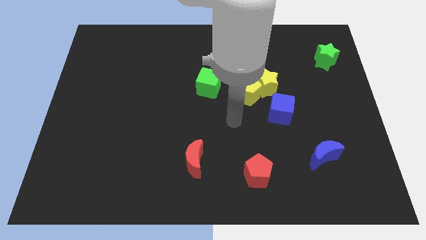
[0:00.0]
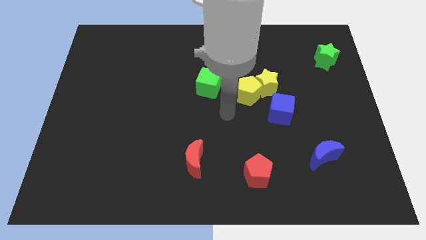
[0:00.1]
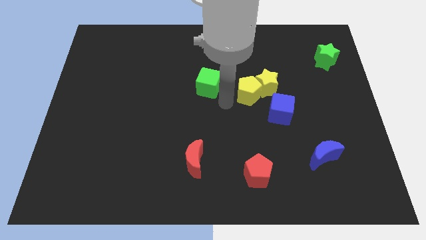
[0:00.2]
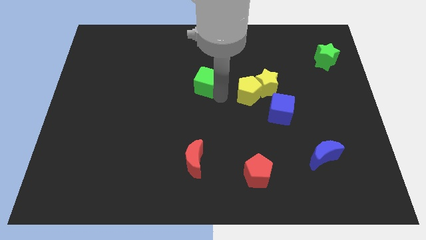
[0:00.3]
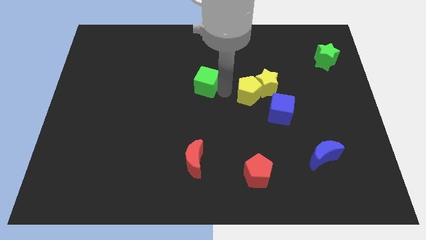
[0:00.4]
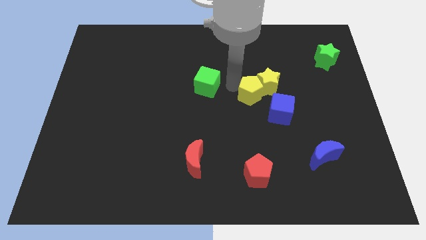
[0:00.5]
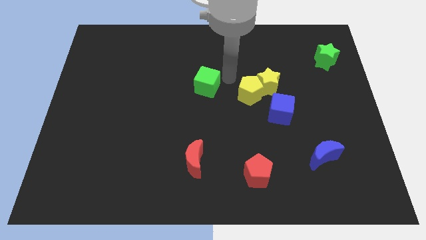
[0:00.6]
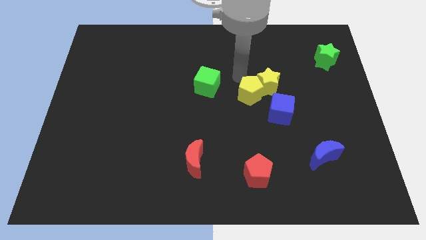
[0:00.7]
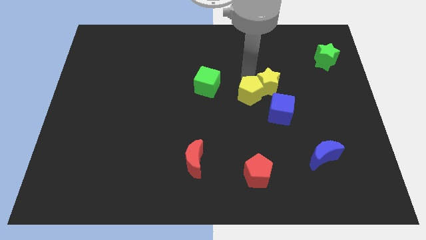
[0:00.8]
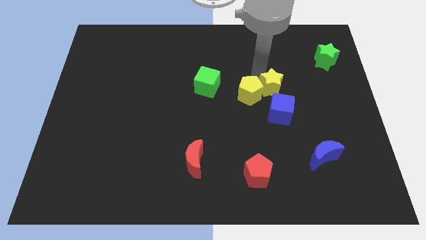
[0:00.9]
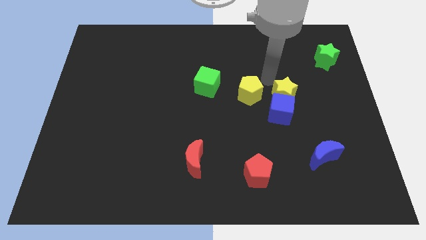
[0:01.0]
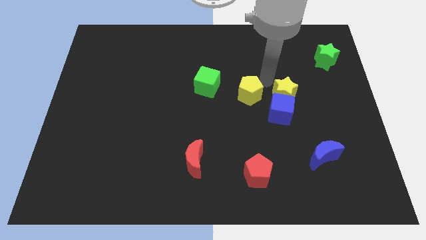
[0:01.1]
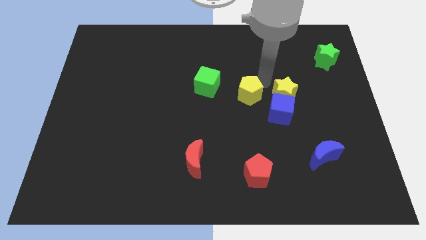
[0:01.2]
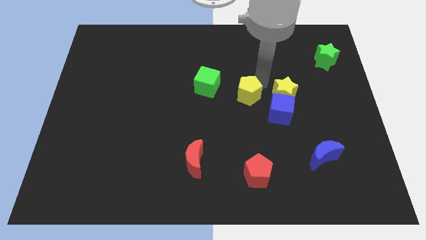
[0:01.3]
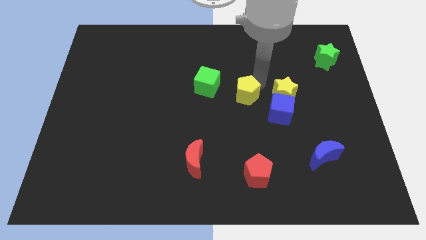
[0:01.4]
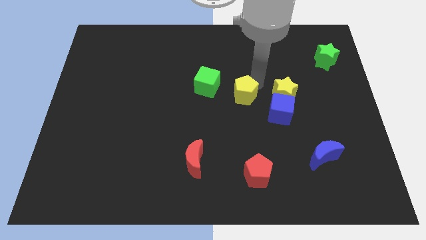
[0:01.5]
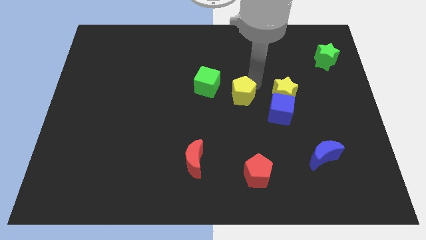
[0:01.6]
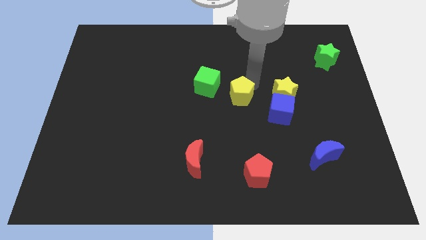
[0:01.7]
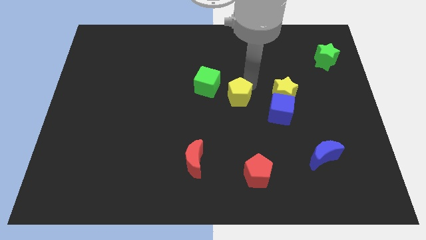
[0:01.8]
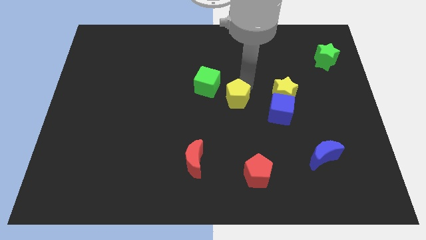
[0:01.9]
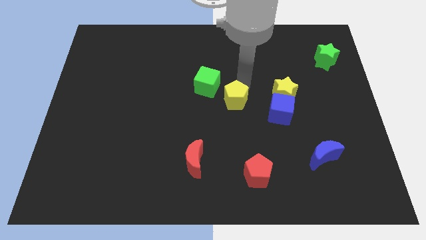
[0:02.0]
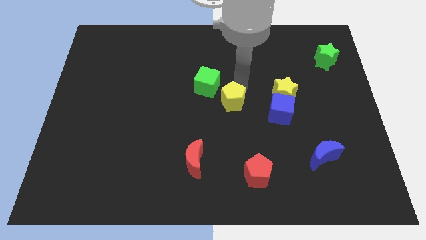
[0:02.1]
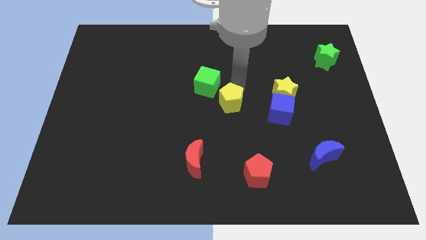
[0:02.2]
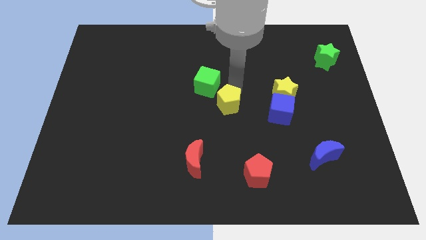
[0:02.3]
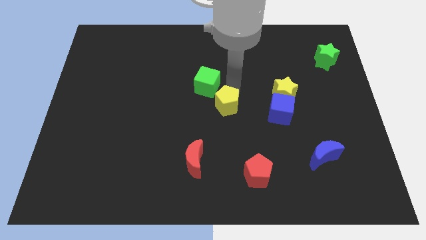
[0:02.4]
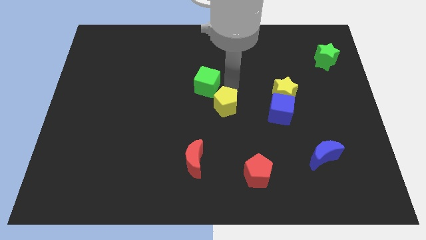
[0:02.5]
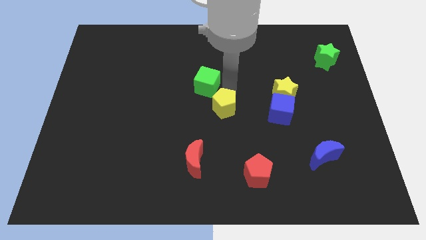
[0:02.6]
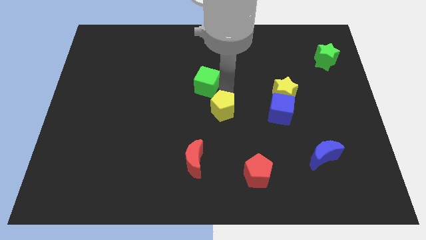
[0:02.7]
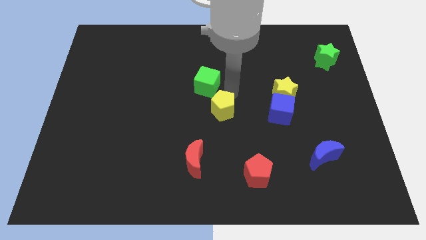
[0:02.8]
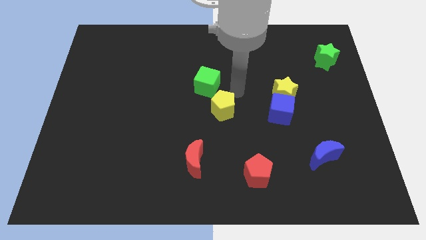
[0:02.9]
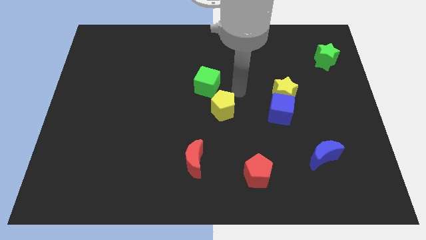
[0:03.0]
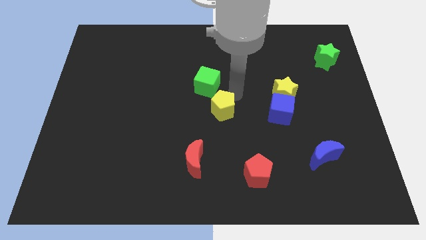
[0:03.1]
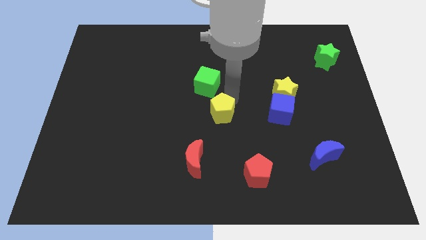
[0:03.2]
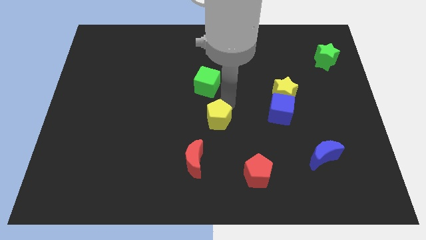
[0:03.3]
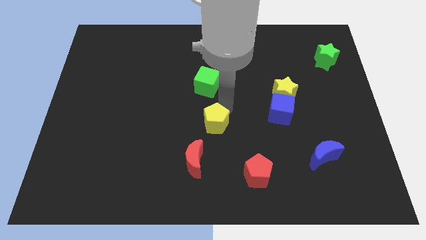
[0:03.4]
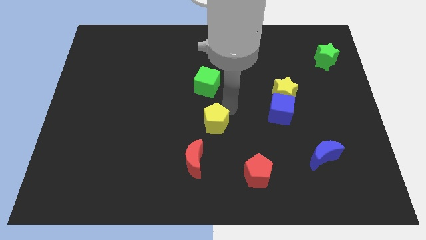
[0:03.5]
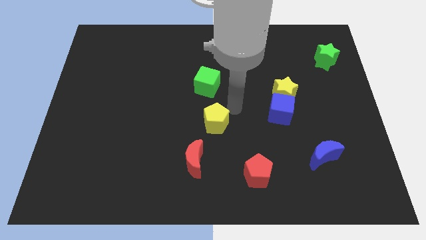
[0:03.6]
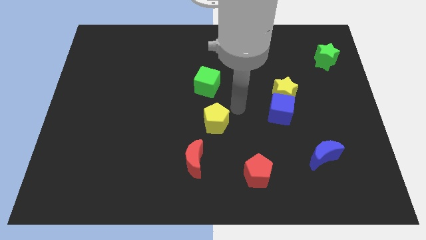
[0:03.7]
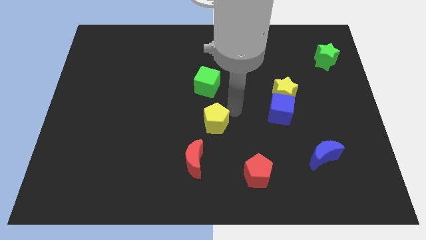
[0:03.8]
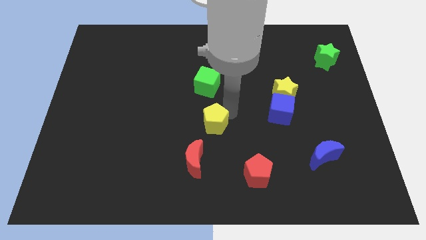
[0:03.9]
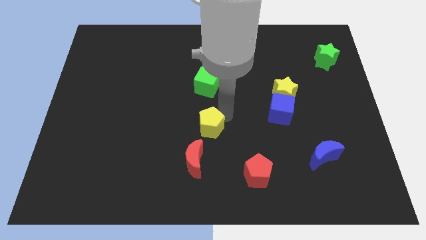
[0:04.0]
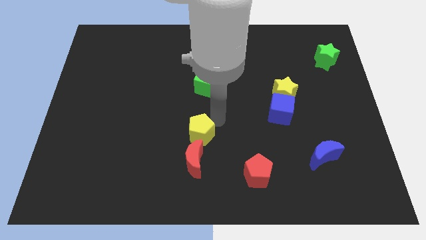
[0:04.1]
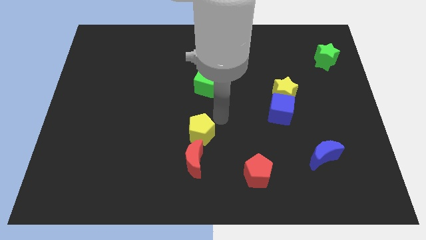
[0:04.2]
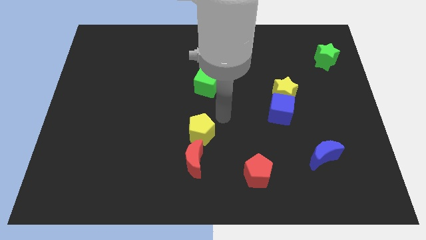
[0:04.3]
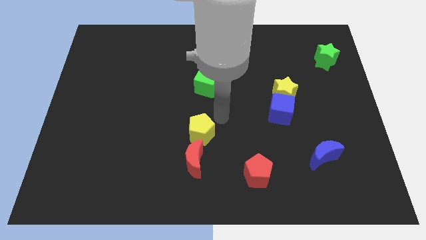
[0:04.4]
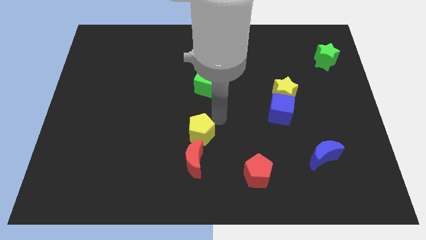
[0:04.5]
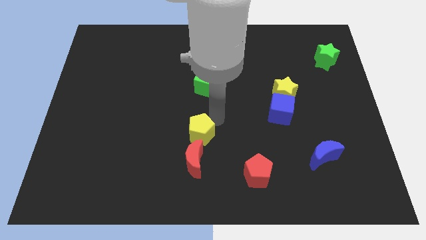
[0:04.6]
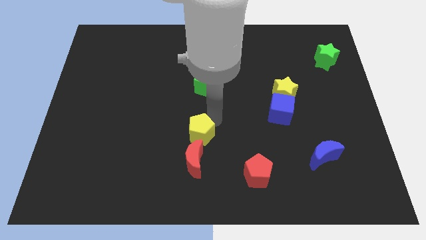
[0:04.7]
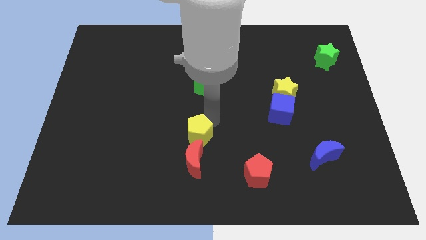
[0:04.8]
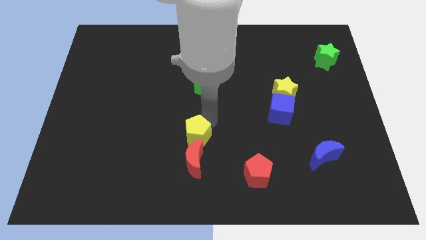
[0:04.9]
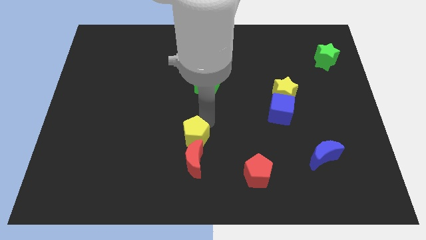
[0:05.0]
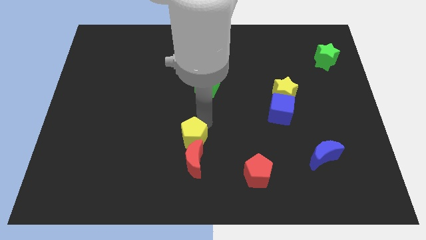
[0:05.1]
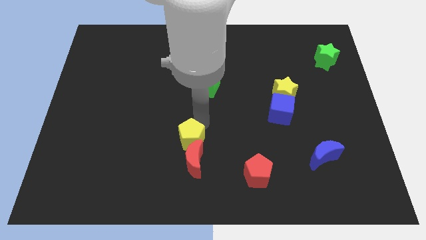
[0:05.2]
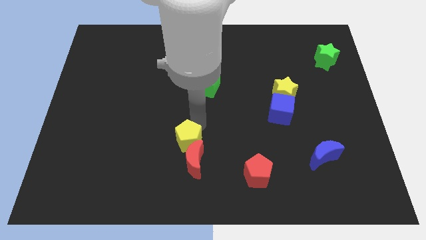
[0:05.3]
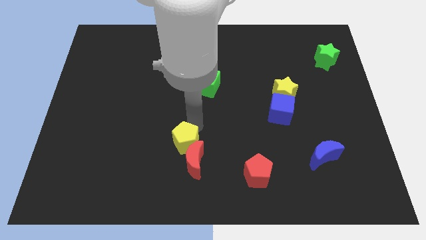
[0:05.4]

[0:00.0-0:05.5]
slide the yellow pentagon down and to the left diagonally

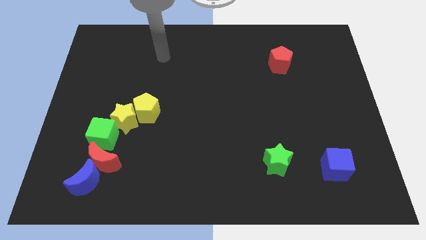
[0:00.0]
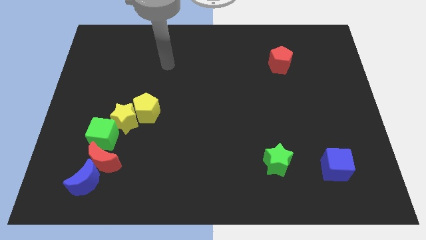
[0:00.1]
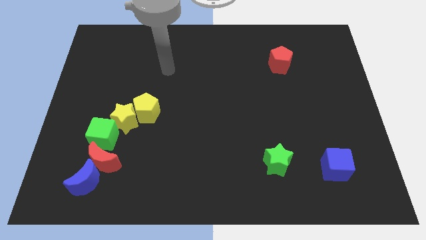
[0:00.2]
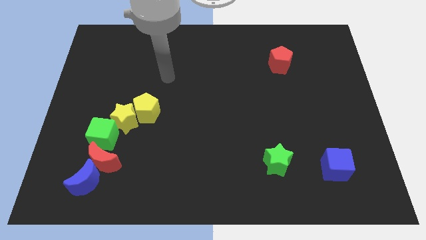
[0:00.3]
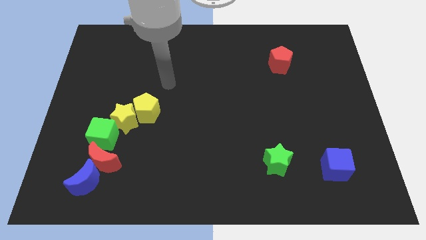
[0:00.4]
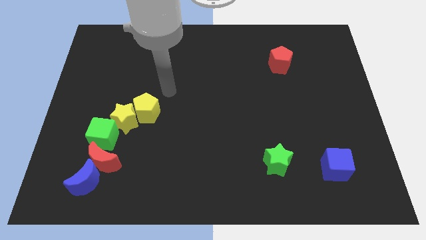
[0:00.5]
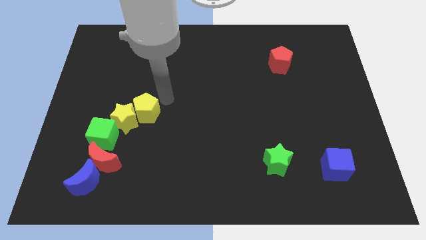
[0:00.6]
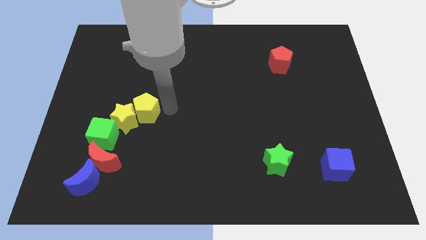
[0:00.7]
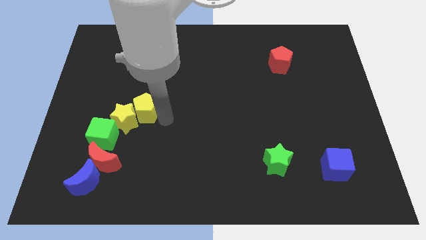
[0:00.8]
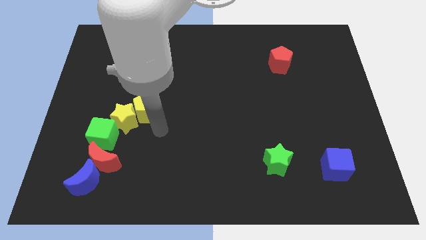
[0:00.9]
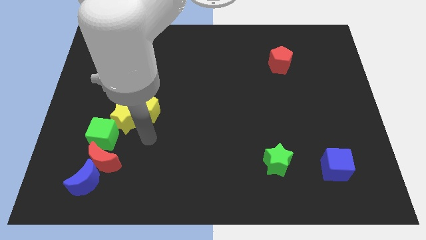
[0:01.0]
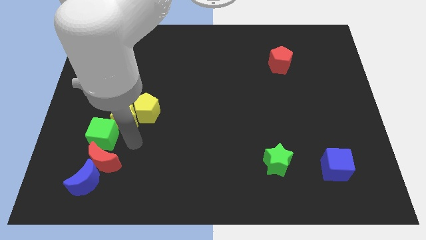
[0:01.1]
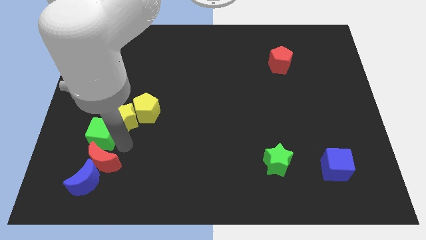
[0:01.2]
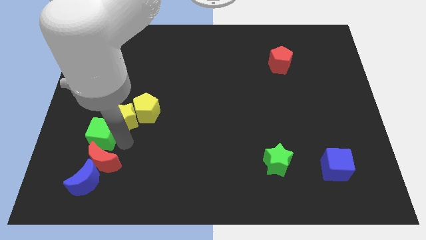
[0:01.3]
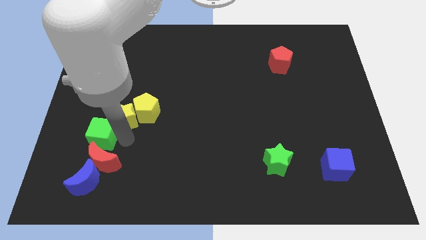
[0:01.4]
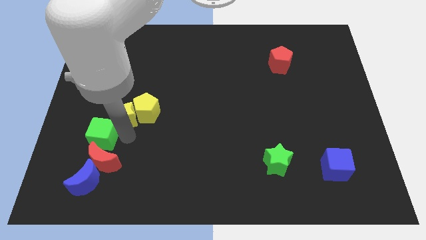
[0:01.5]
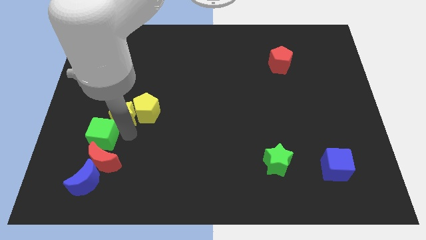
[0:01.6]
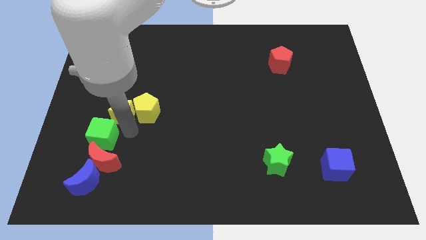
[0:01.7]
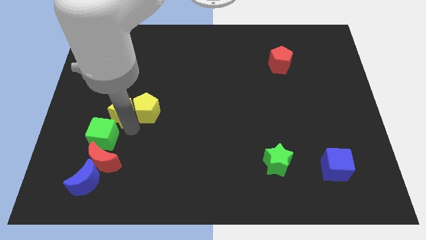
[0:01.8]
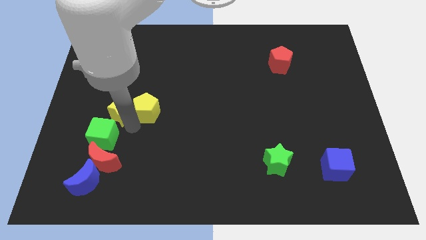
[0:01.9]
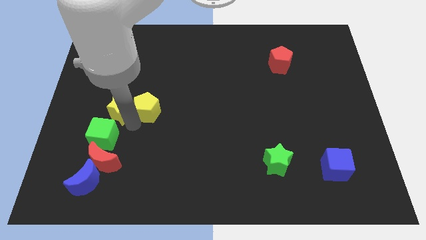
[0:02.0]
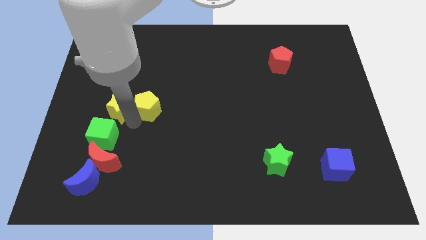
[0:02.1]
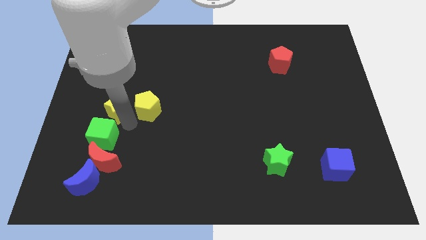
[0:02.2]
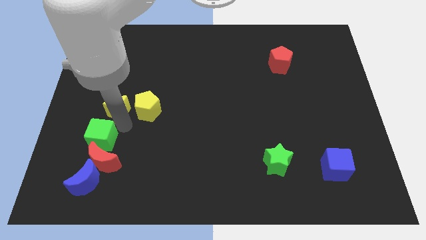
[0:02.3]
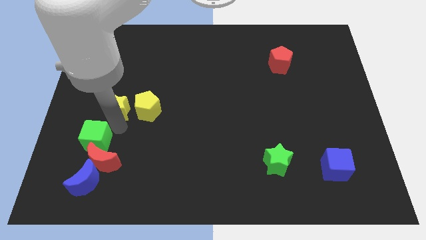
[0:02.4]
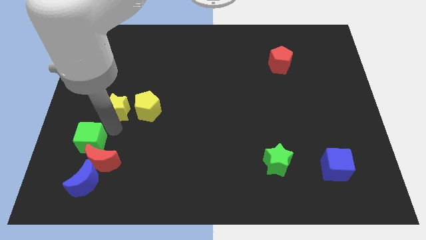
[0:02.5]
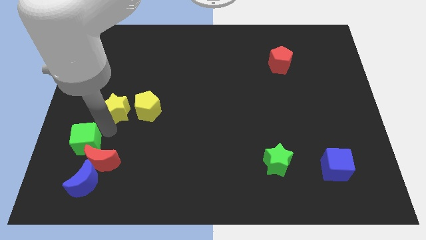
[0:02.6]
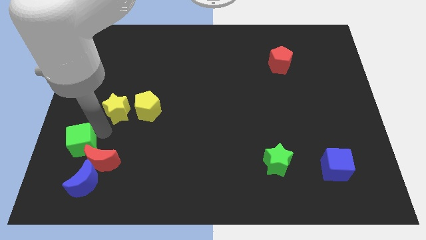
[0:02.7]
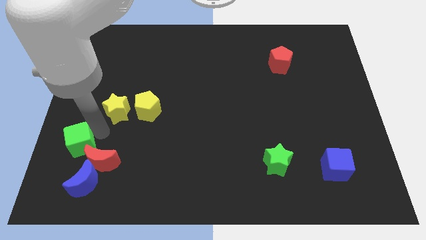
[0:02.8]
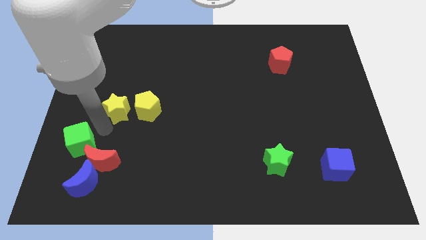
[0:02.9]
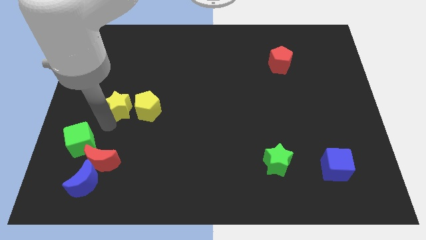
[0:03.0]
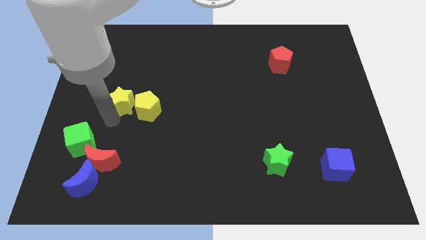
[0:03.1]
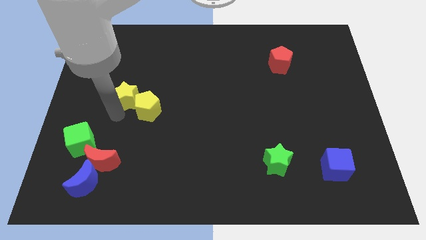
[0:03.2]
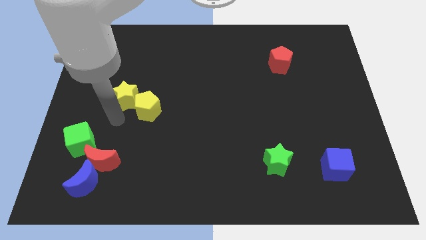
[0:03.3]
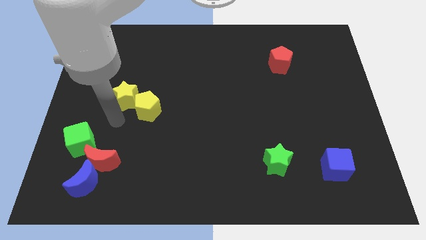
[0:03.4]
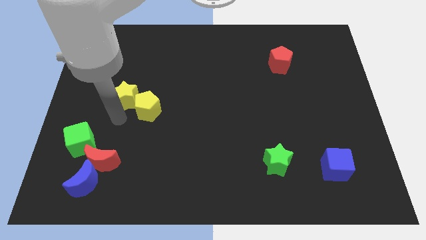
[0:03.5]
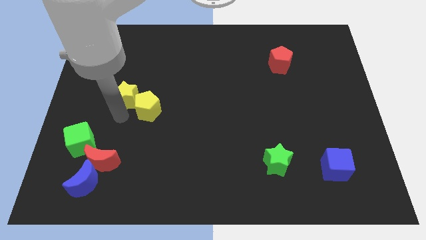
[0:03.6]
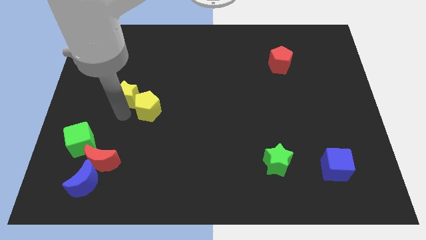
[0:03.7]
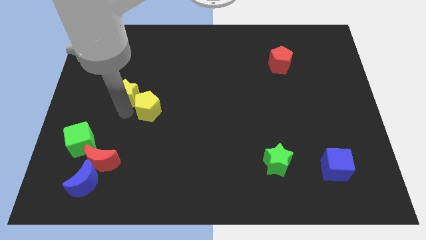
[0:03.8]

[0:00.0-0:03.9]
slightly push the yellow star up
